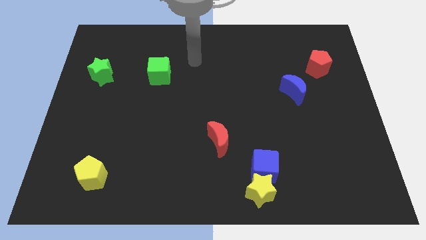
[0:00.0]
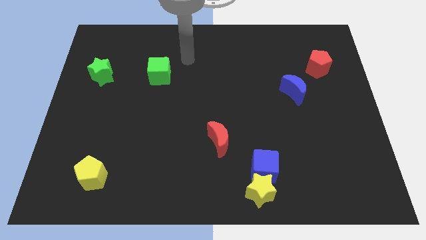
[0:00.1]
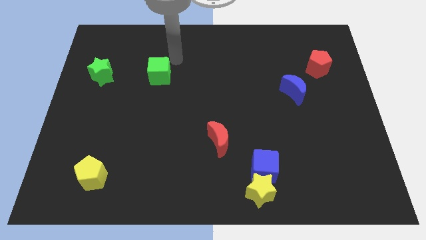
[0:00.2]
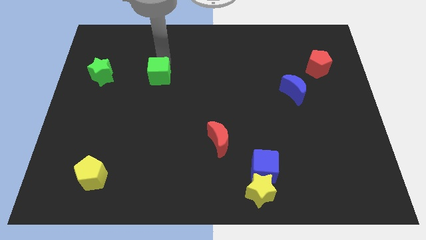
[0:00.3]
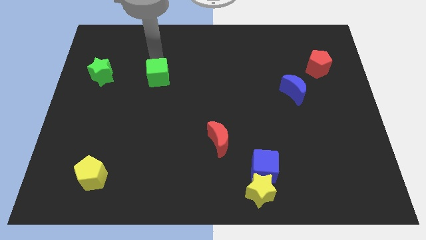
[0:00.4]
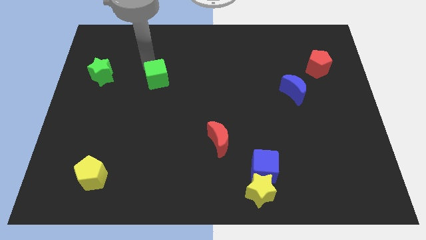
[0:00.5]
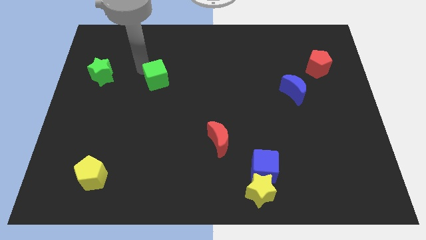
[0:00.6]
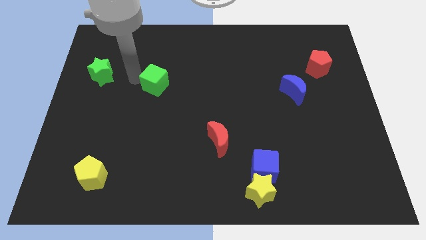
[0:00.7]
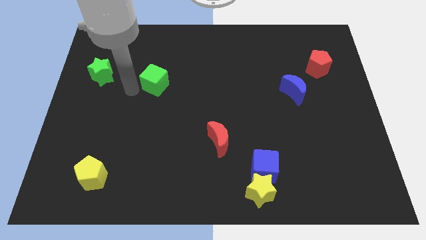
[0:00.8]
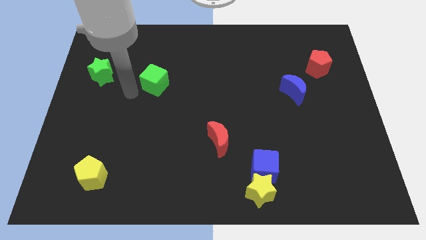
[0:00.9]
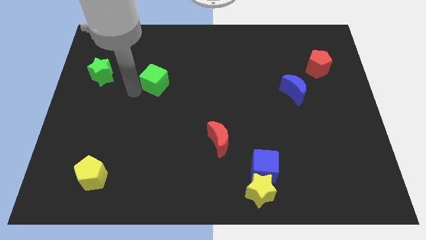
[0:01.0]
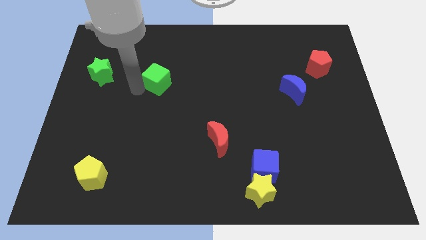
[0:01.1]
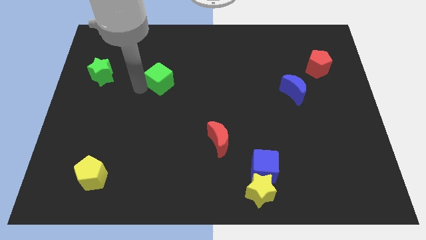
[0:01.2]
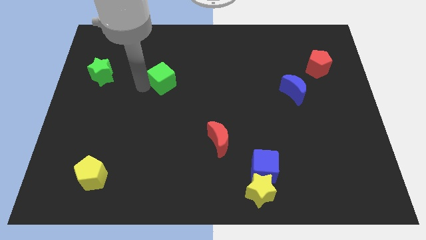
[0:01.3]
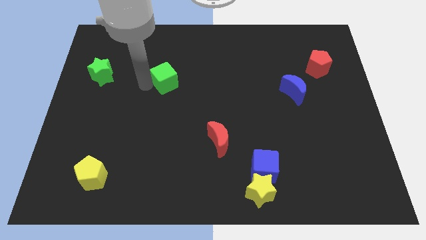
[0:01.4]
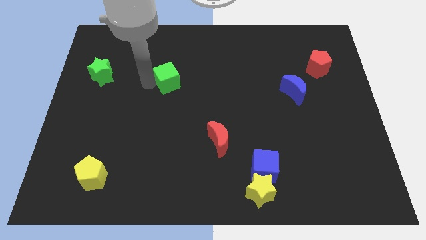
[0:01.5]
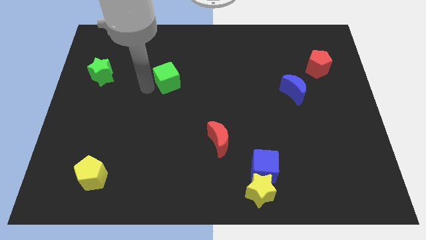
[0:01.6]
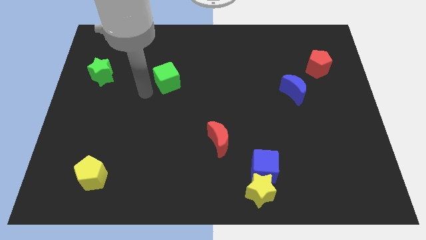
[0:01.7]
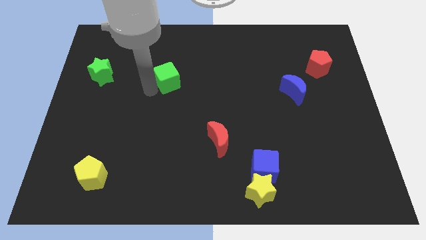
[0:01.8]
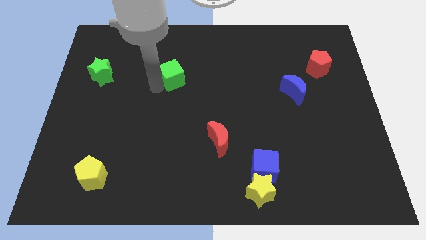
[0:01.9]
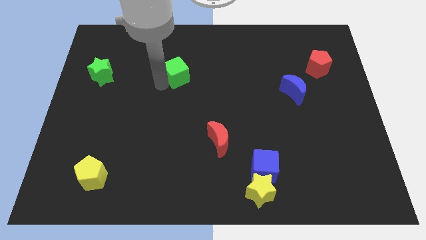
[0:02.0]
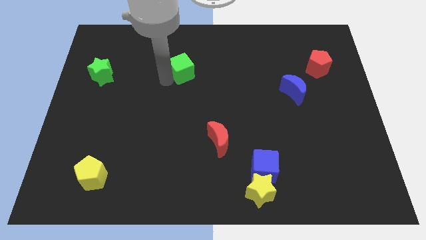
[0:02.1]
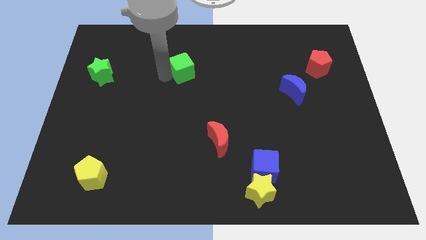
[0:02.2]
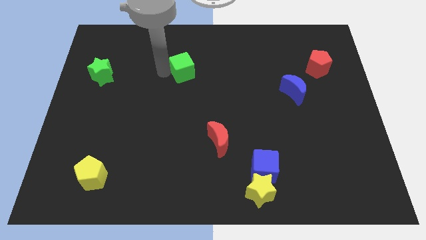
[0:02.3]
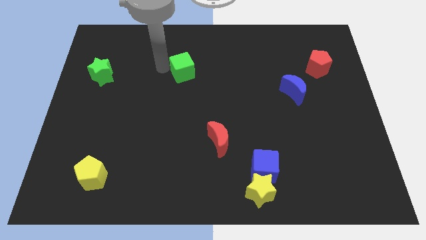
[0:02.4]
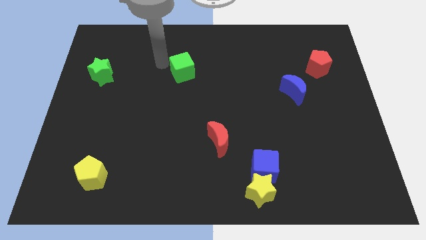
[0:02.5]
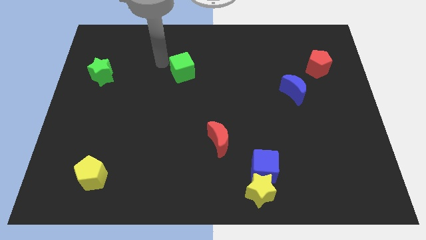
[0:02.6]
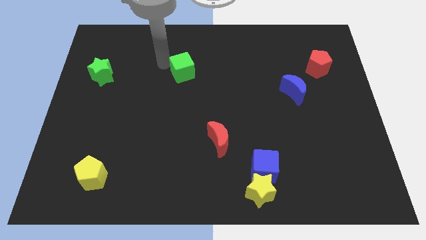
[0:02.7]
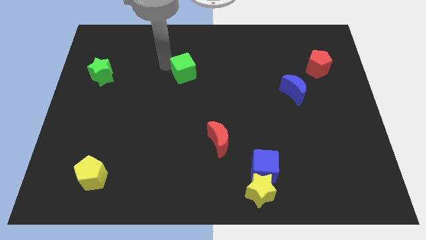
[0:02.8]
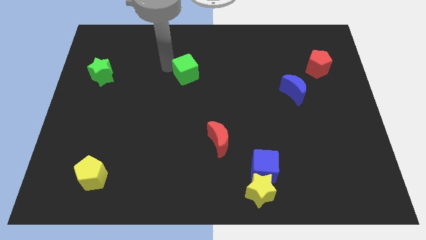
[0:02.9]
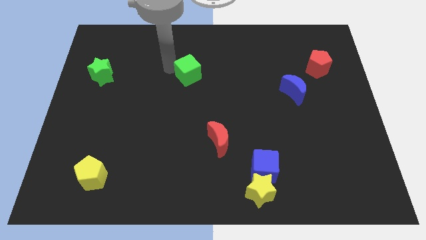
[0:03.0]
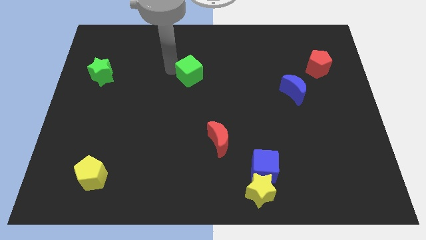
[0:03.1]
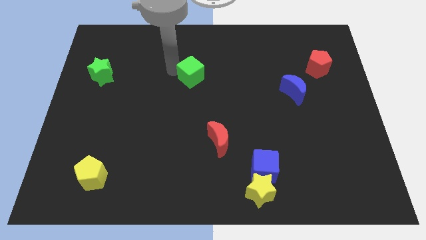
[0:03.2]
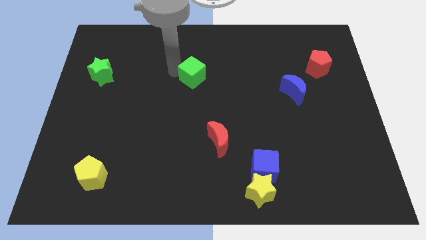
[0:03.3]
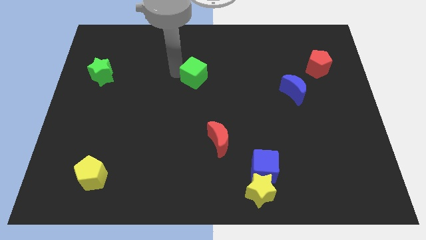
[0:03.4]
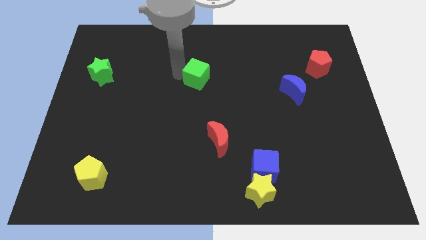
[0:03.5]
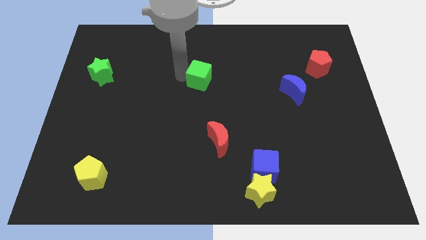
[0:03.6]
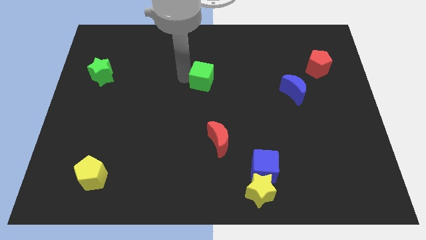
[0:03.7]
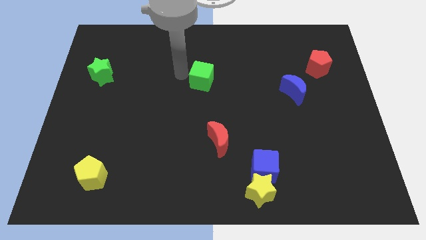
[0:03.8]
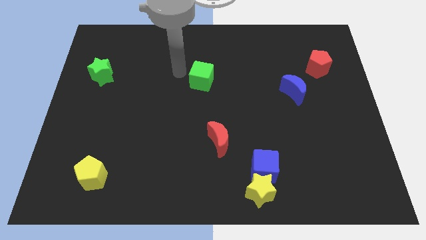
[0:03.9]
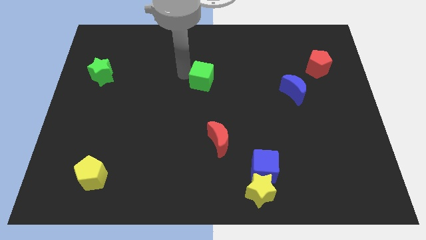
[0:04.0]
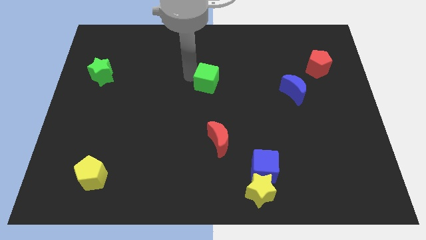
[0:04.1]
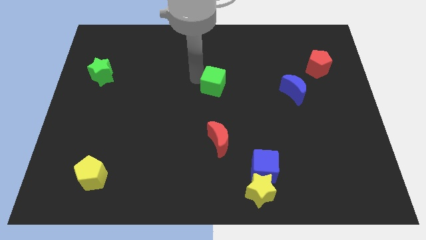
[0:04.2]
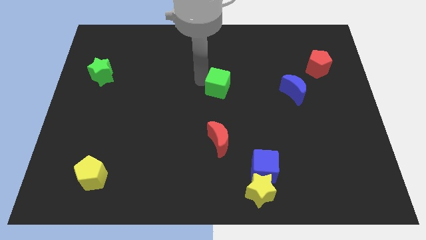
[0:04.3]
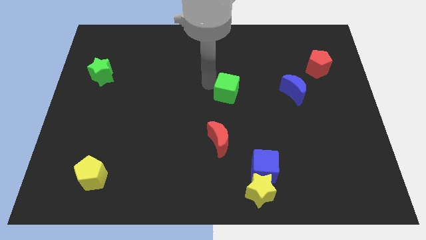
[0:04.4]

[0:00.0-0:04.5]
put the green cube to the left side of the blue moon

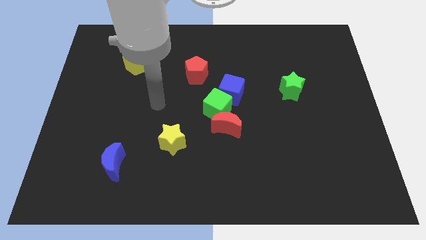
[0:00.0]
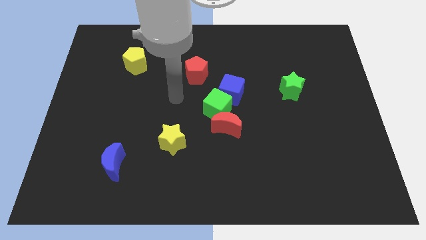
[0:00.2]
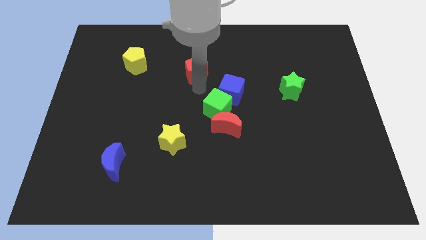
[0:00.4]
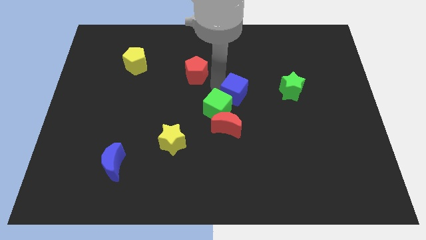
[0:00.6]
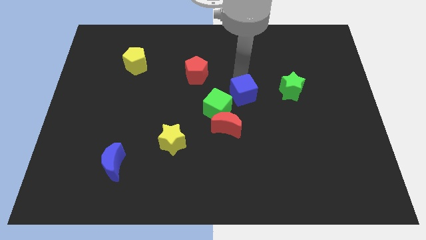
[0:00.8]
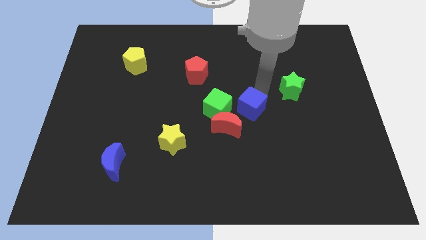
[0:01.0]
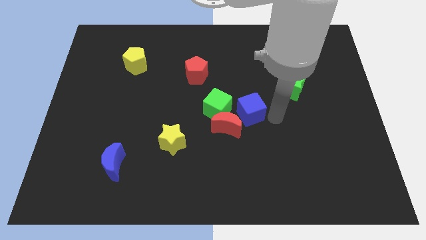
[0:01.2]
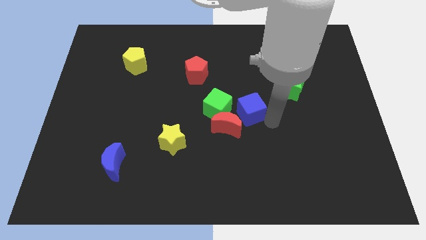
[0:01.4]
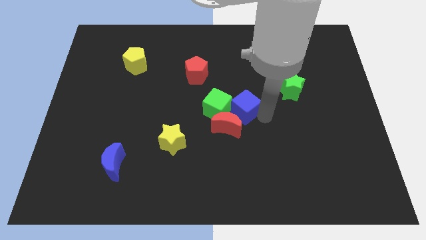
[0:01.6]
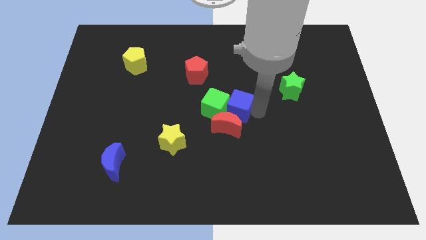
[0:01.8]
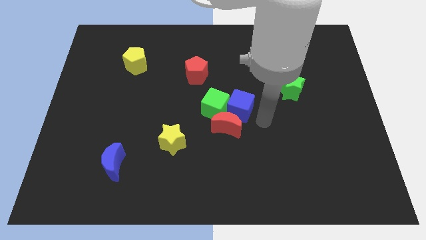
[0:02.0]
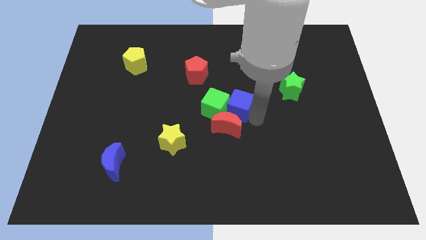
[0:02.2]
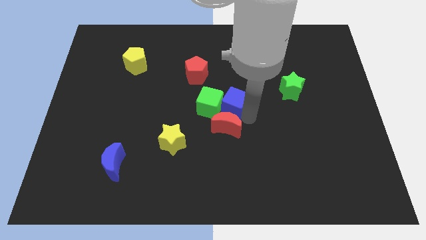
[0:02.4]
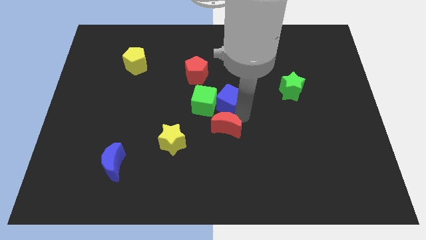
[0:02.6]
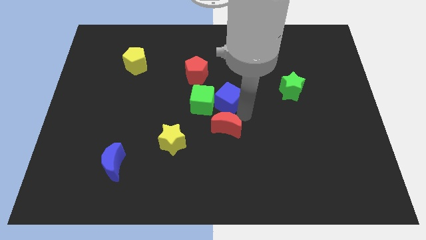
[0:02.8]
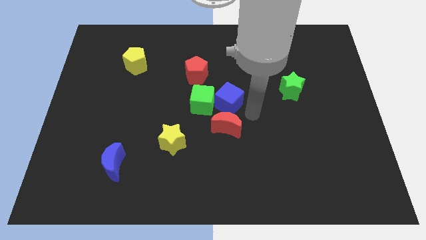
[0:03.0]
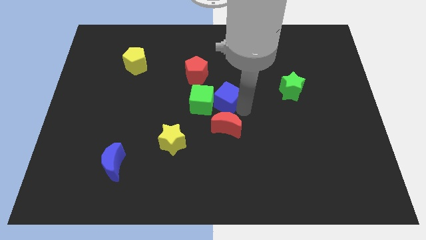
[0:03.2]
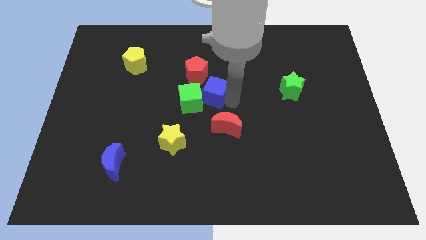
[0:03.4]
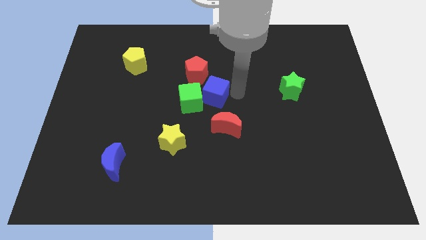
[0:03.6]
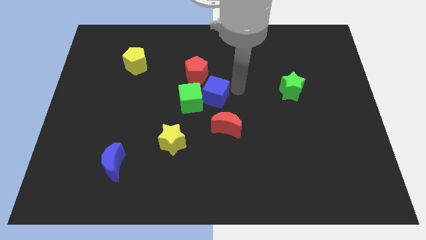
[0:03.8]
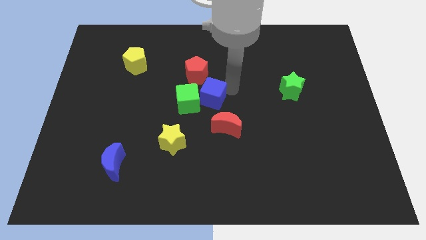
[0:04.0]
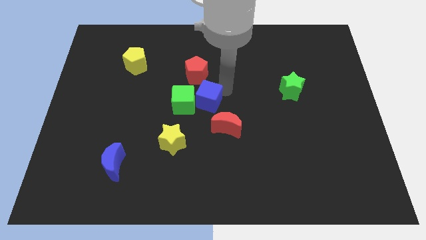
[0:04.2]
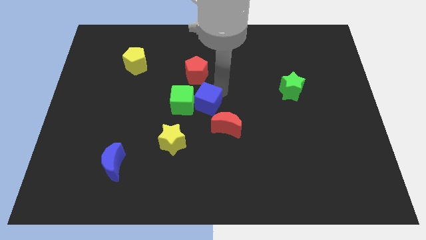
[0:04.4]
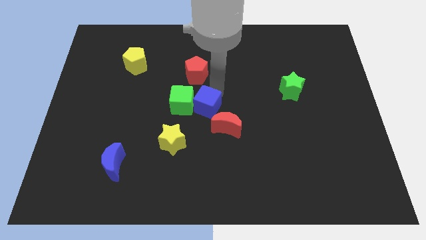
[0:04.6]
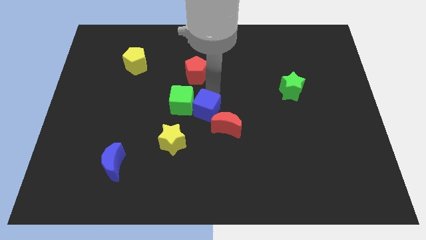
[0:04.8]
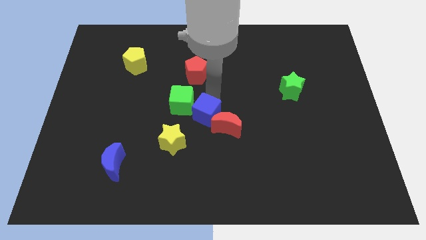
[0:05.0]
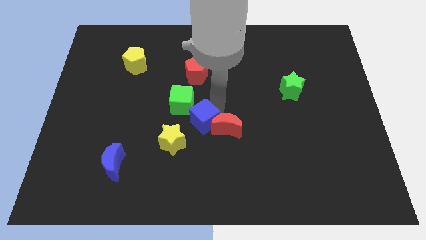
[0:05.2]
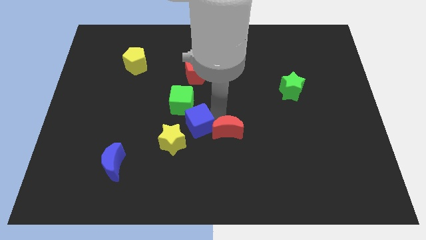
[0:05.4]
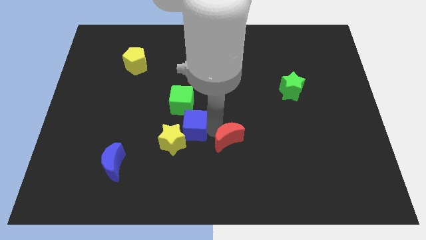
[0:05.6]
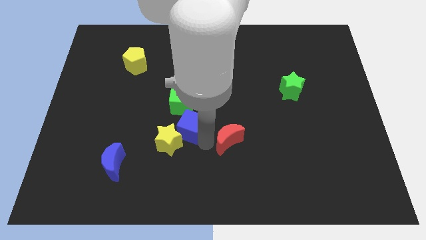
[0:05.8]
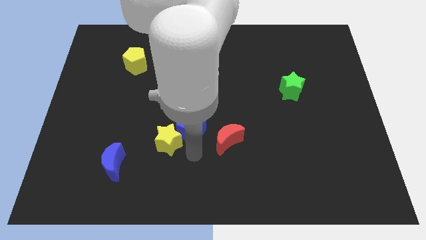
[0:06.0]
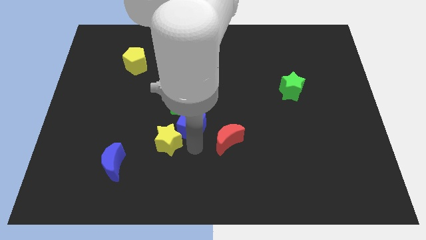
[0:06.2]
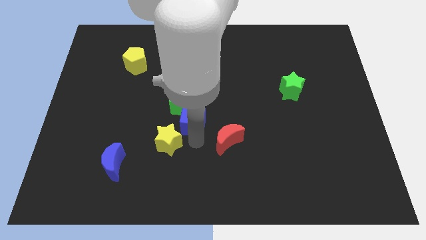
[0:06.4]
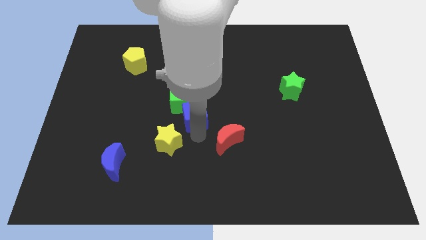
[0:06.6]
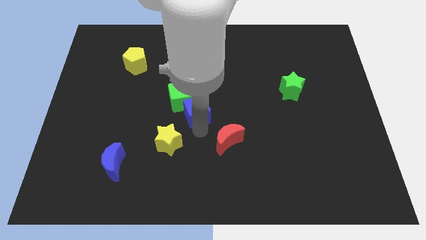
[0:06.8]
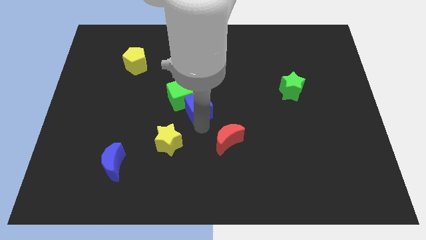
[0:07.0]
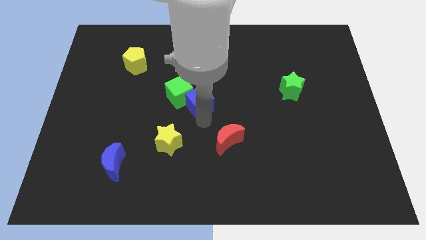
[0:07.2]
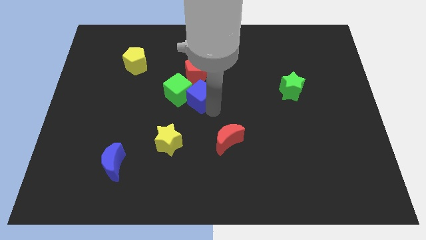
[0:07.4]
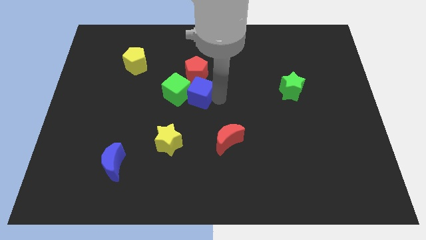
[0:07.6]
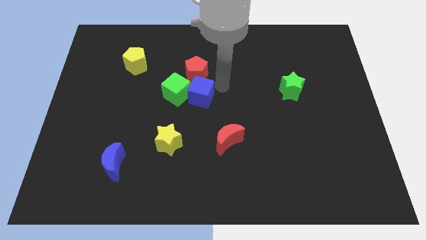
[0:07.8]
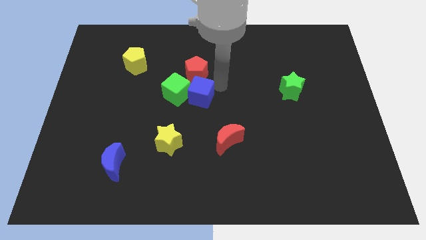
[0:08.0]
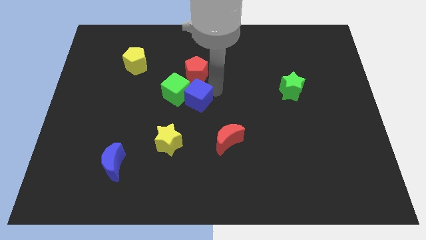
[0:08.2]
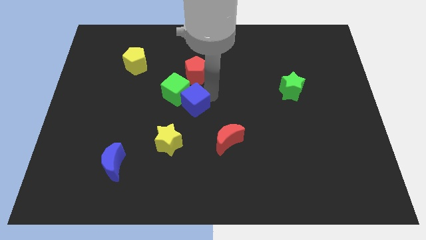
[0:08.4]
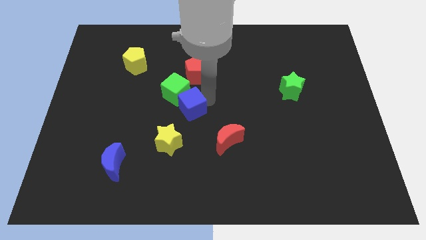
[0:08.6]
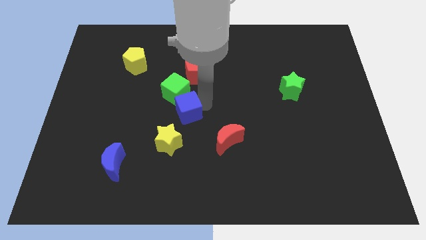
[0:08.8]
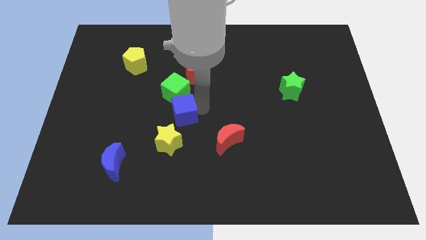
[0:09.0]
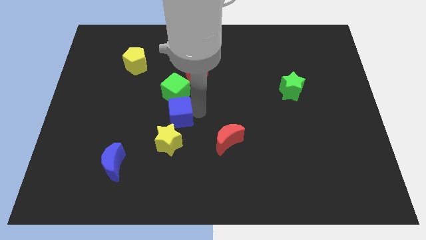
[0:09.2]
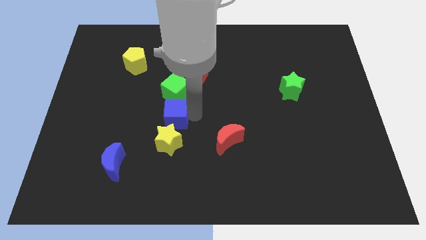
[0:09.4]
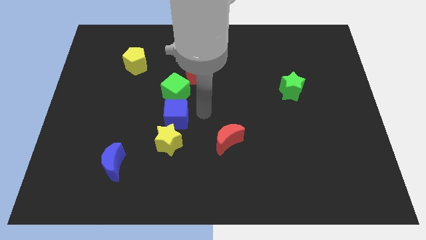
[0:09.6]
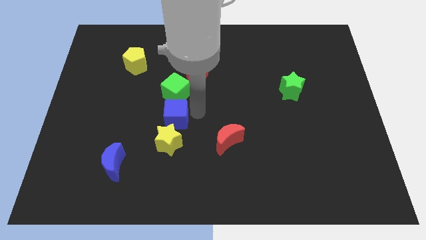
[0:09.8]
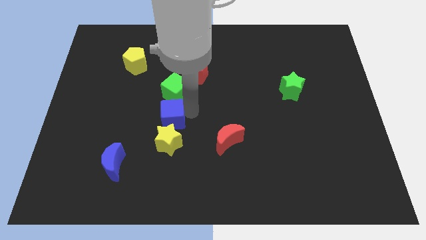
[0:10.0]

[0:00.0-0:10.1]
slide the blue cube diagonally up and to the left of the yellow star
